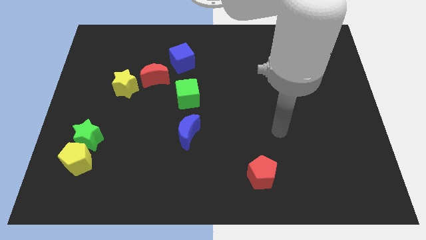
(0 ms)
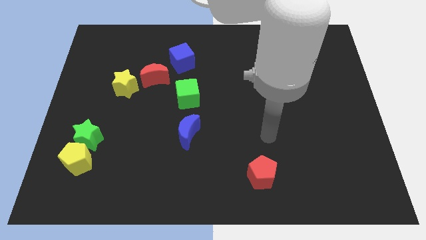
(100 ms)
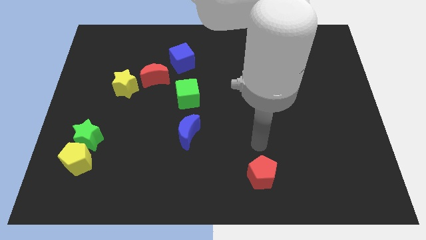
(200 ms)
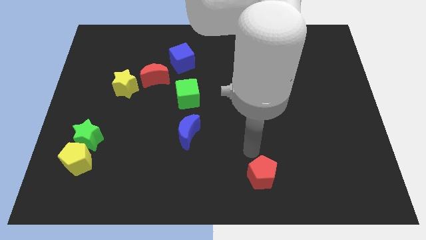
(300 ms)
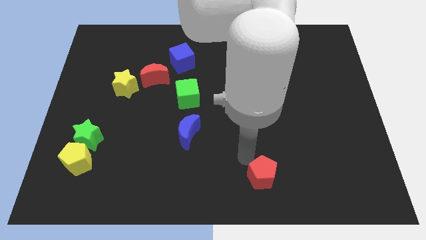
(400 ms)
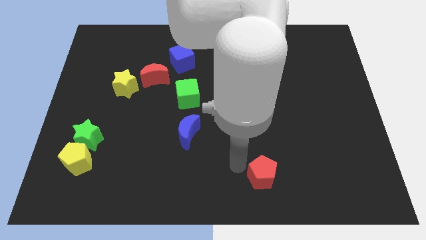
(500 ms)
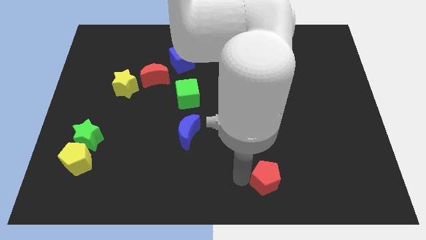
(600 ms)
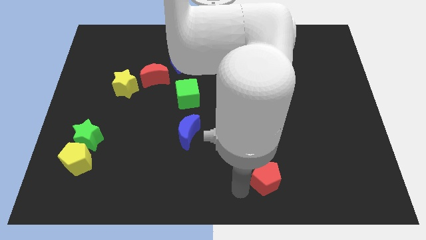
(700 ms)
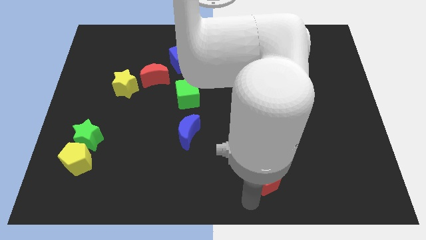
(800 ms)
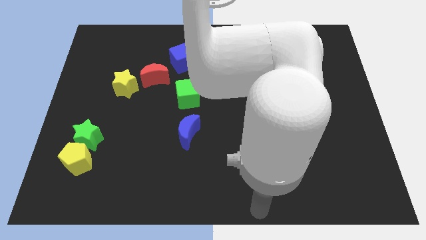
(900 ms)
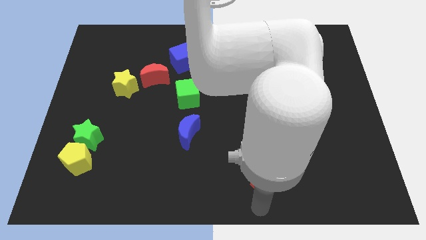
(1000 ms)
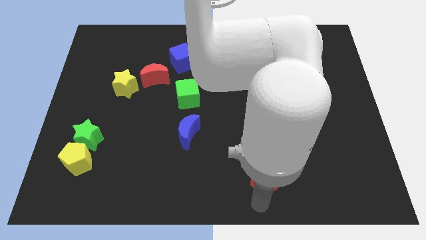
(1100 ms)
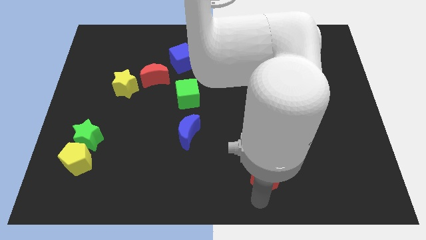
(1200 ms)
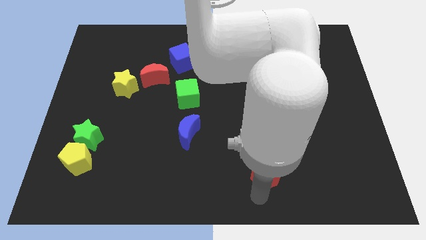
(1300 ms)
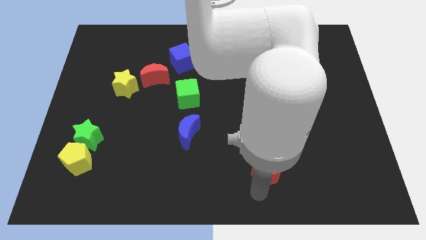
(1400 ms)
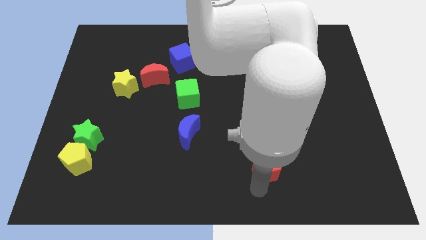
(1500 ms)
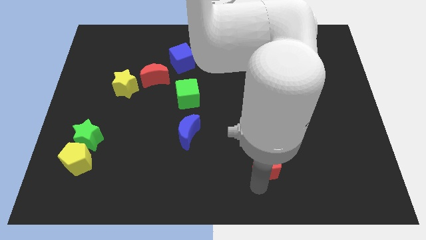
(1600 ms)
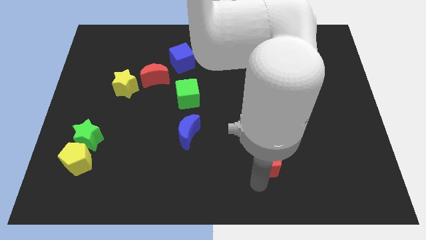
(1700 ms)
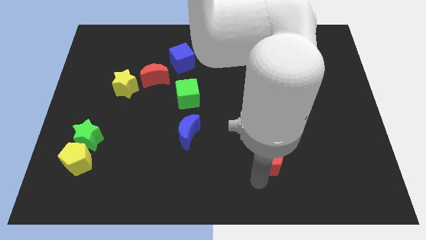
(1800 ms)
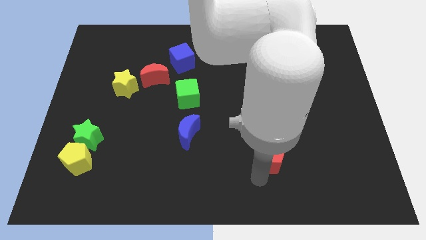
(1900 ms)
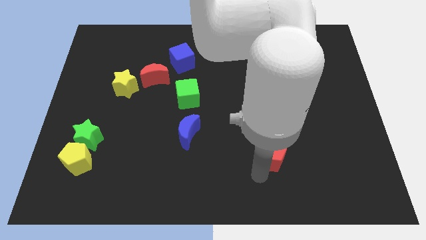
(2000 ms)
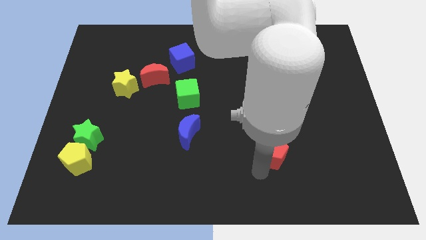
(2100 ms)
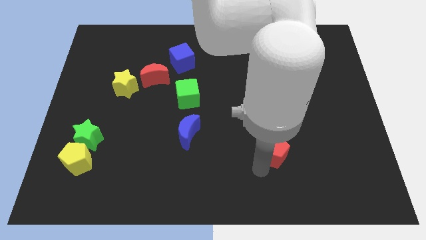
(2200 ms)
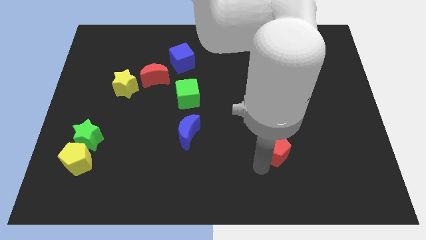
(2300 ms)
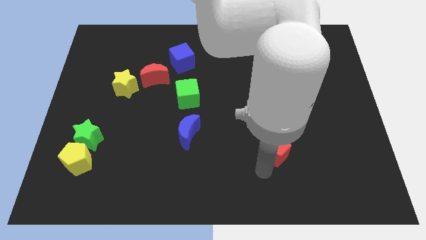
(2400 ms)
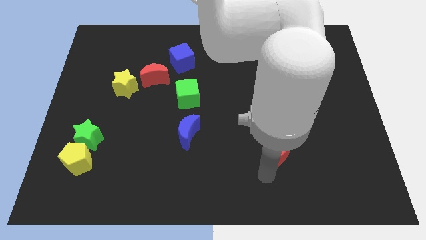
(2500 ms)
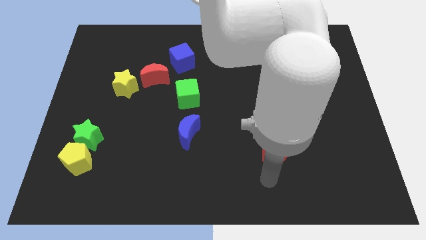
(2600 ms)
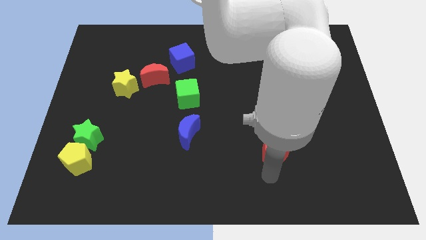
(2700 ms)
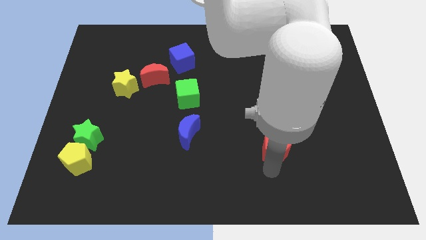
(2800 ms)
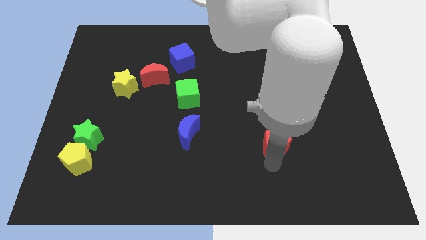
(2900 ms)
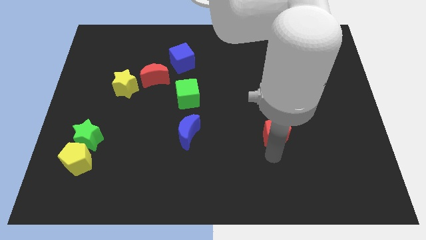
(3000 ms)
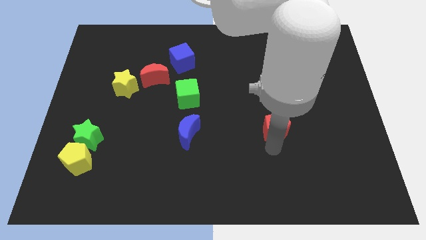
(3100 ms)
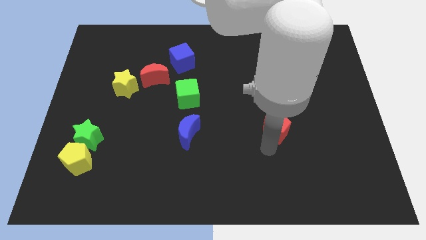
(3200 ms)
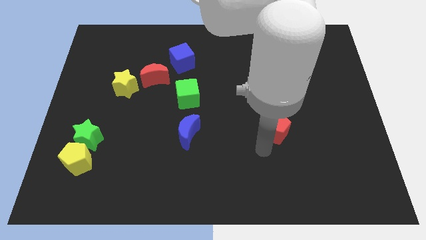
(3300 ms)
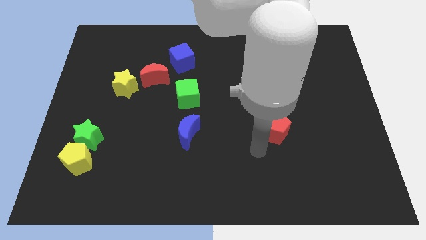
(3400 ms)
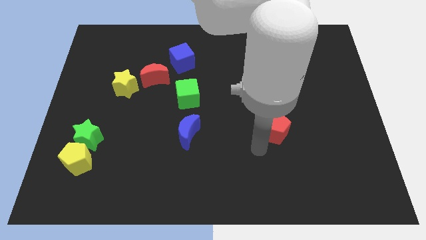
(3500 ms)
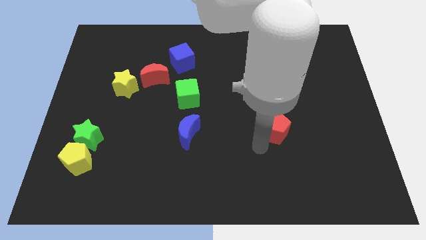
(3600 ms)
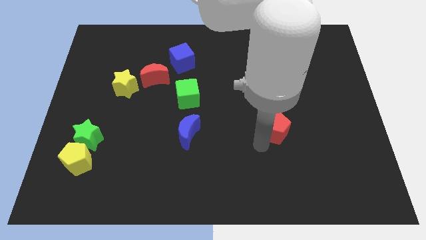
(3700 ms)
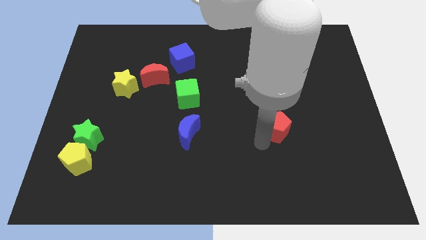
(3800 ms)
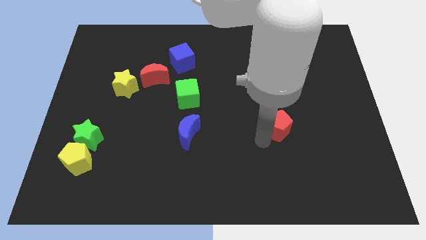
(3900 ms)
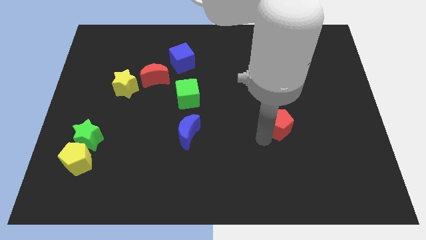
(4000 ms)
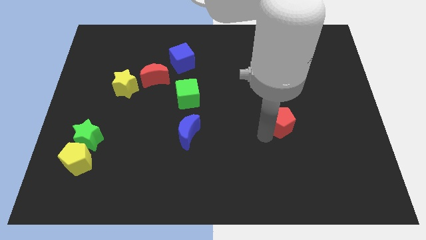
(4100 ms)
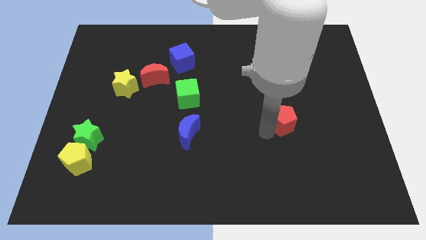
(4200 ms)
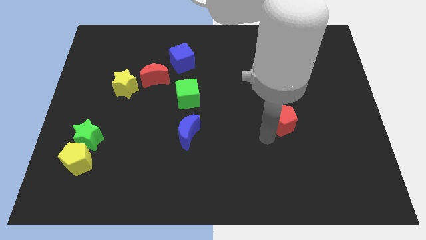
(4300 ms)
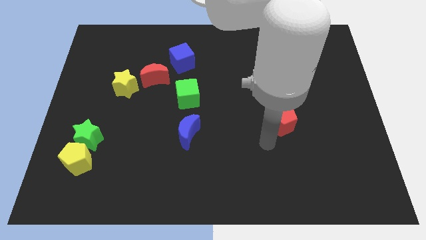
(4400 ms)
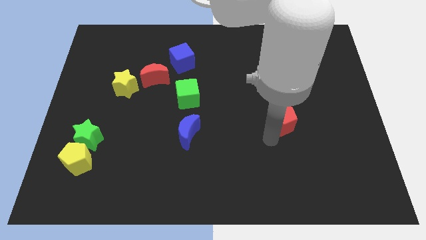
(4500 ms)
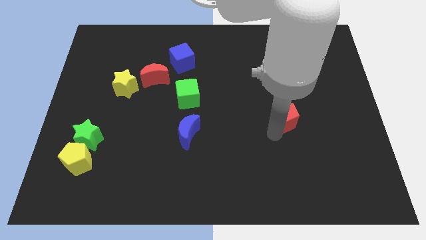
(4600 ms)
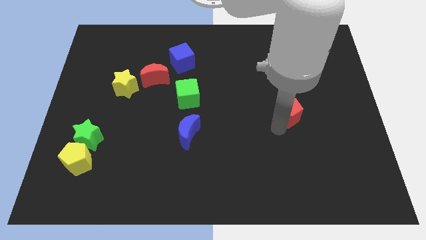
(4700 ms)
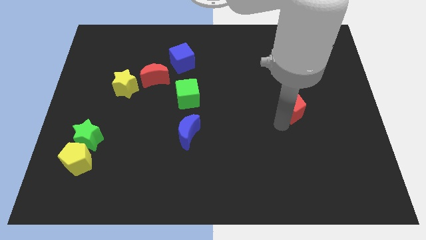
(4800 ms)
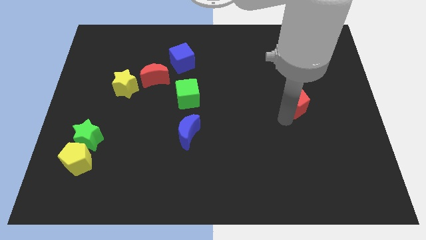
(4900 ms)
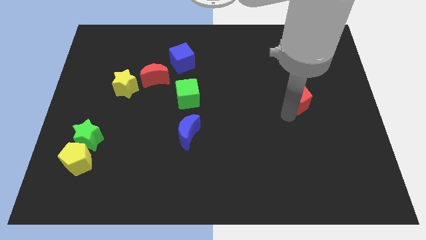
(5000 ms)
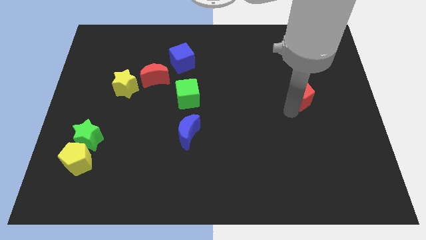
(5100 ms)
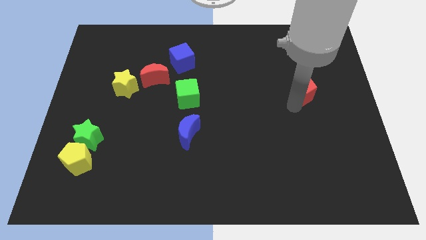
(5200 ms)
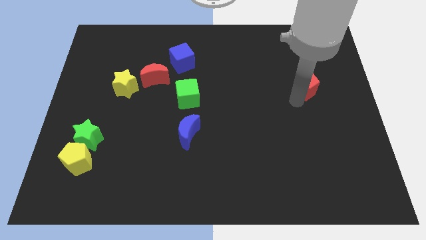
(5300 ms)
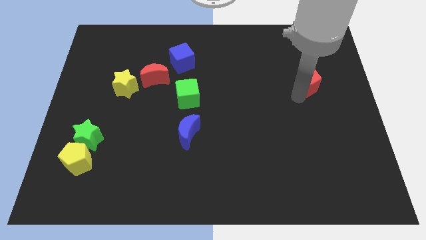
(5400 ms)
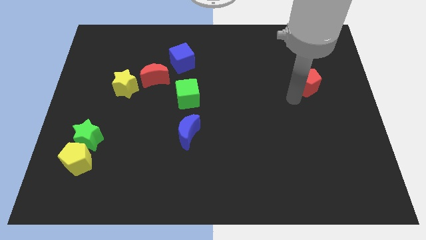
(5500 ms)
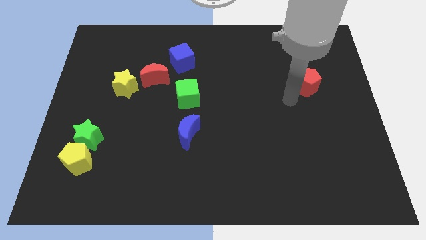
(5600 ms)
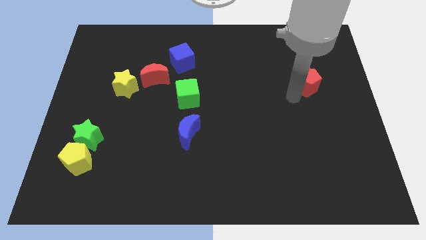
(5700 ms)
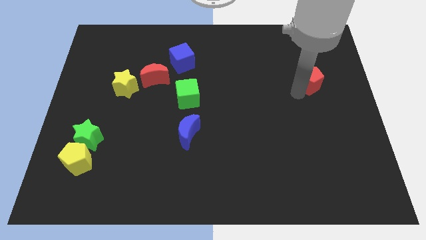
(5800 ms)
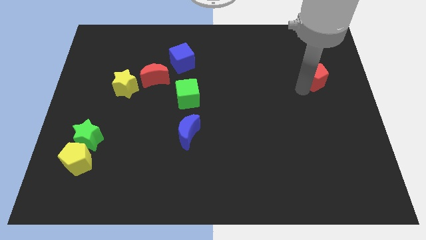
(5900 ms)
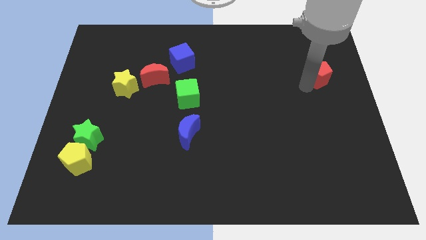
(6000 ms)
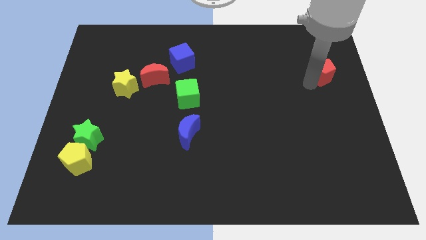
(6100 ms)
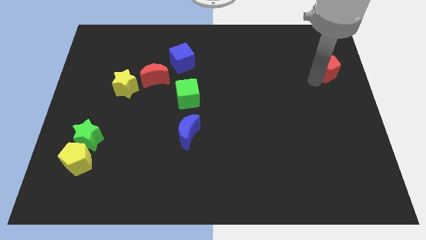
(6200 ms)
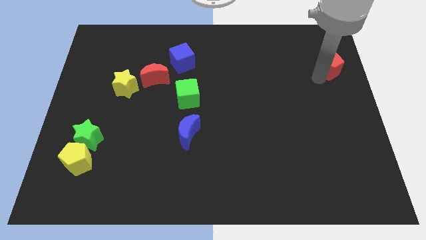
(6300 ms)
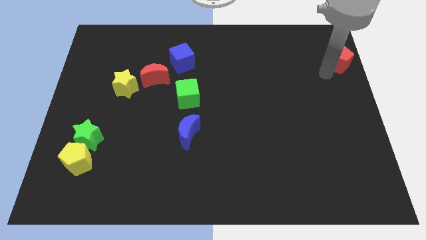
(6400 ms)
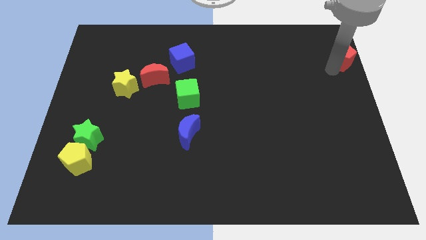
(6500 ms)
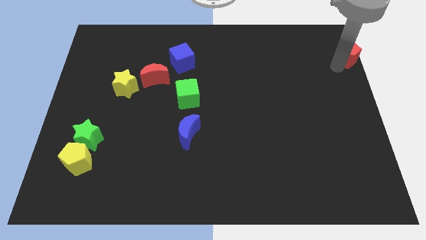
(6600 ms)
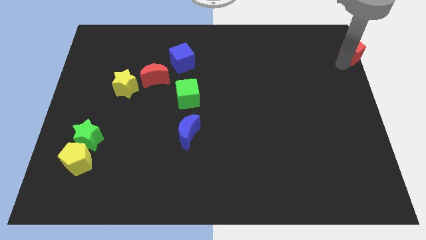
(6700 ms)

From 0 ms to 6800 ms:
put the red pentagon to the top right of the board
